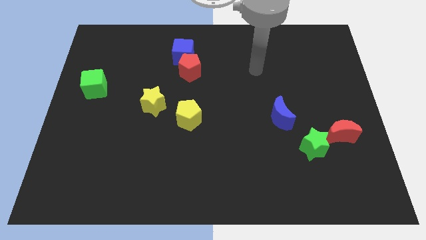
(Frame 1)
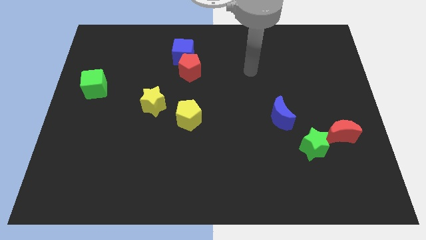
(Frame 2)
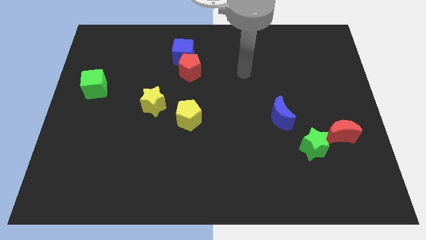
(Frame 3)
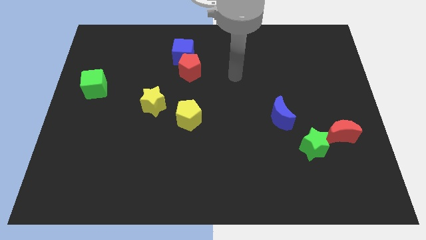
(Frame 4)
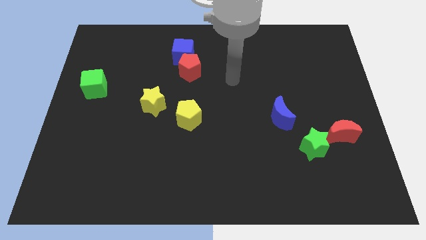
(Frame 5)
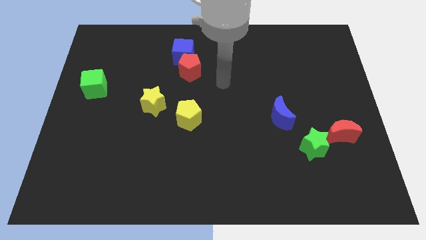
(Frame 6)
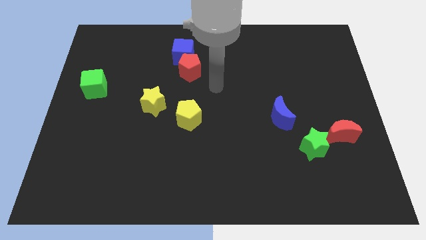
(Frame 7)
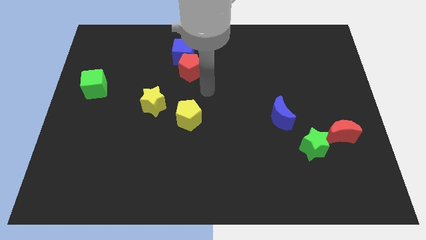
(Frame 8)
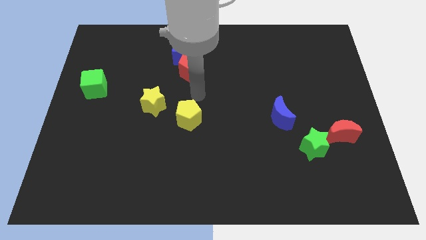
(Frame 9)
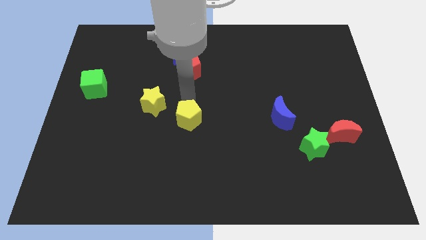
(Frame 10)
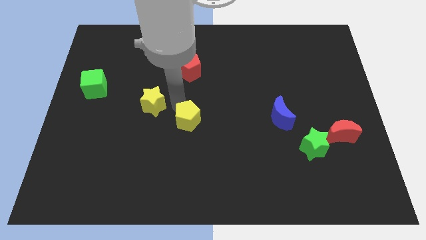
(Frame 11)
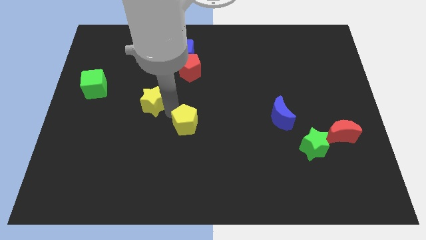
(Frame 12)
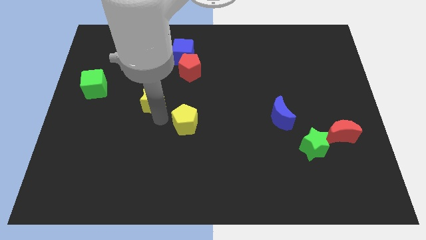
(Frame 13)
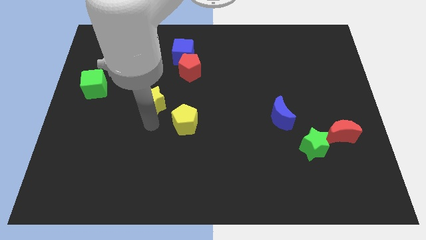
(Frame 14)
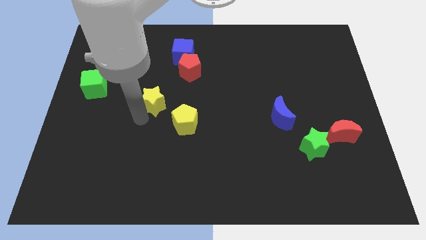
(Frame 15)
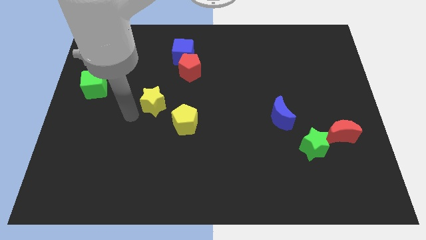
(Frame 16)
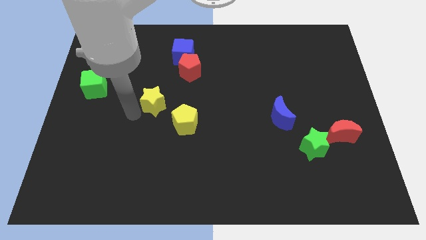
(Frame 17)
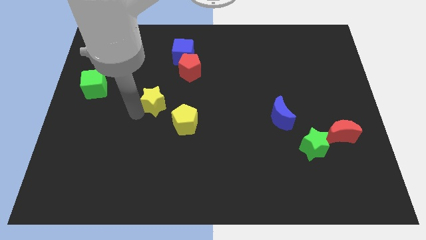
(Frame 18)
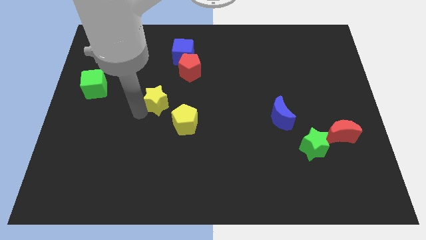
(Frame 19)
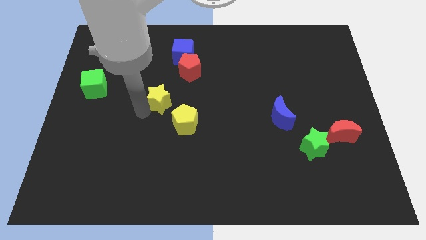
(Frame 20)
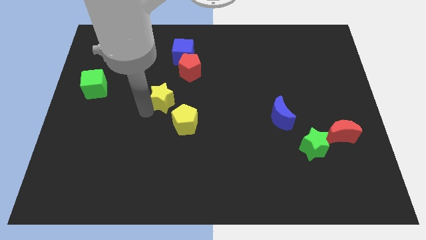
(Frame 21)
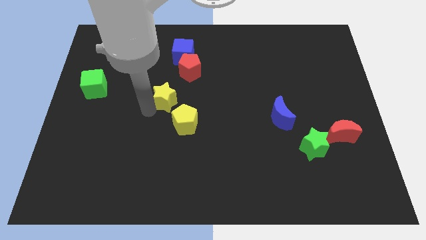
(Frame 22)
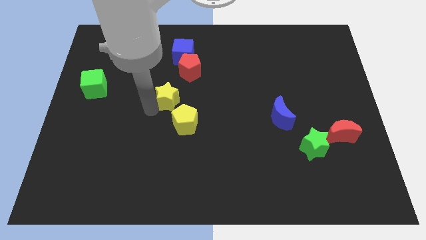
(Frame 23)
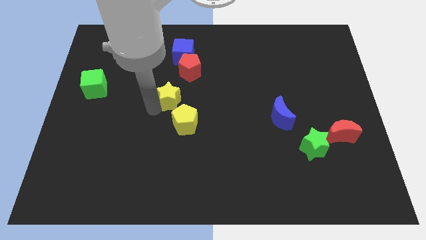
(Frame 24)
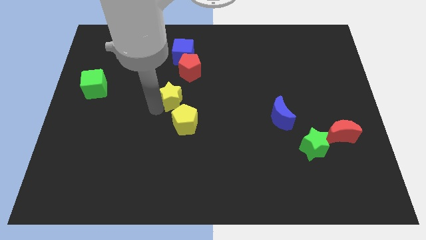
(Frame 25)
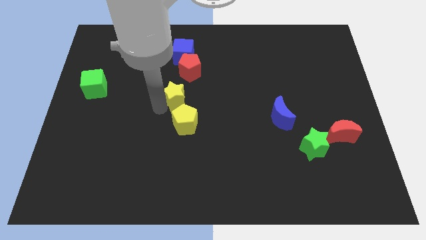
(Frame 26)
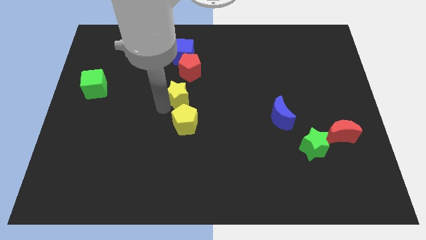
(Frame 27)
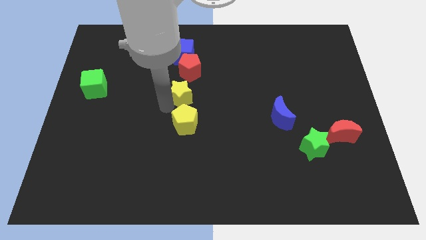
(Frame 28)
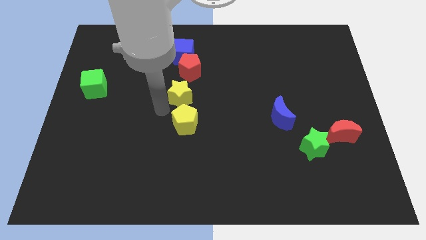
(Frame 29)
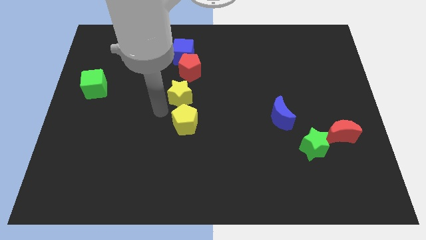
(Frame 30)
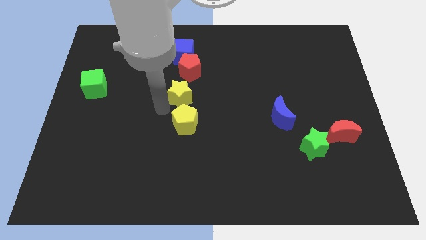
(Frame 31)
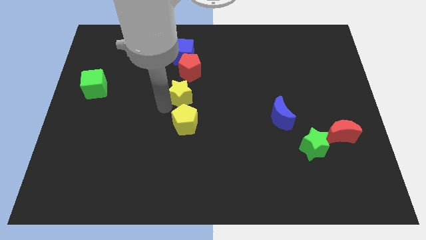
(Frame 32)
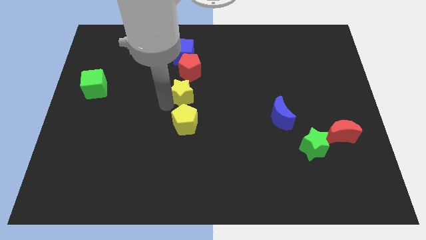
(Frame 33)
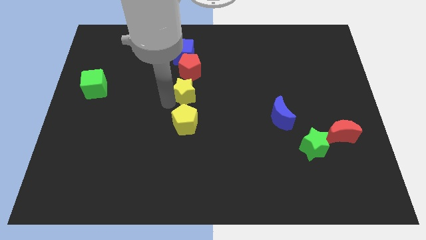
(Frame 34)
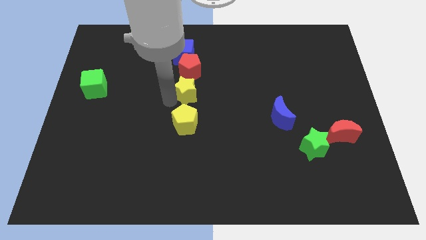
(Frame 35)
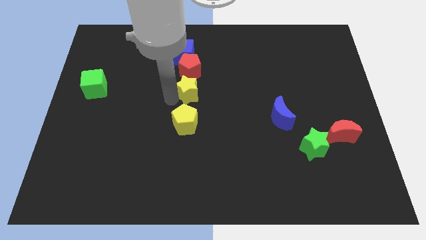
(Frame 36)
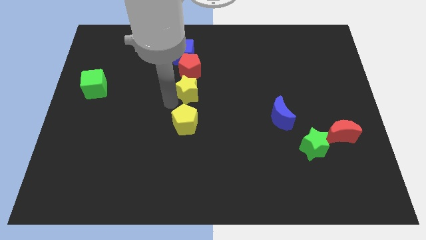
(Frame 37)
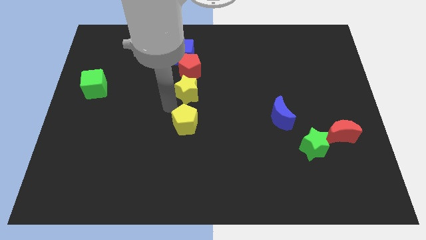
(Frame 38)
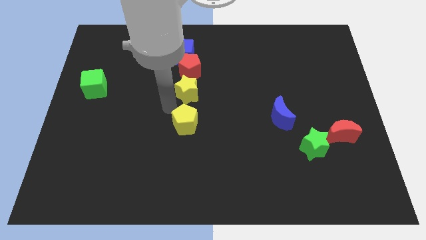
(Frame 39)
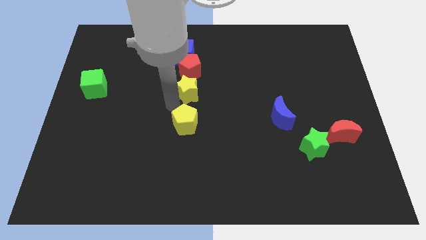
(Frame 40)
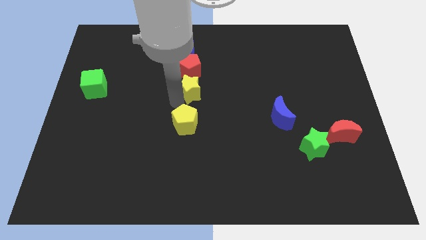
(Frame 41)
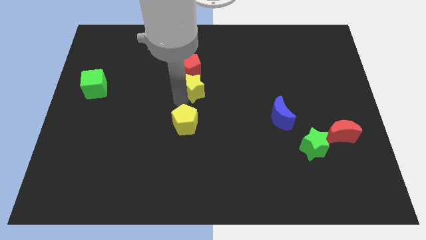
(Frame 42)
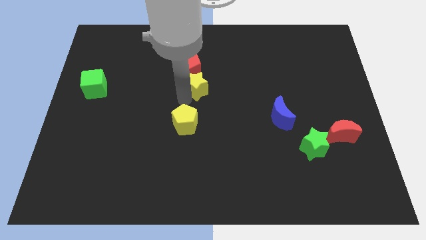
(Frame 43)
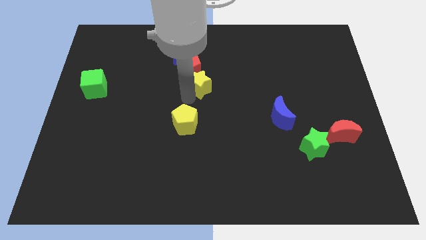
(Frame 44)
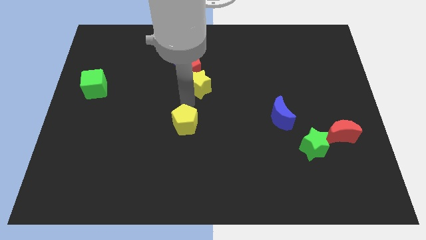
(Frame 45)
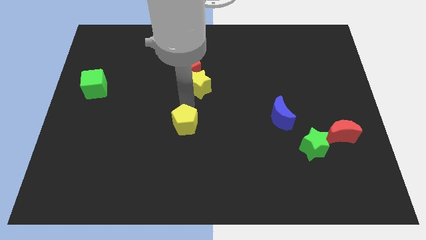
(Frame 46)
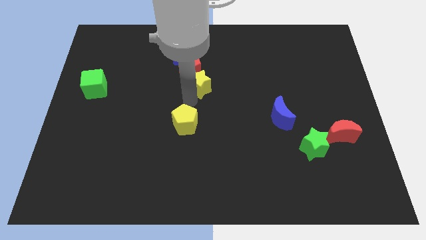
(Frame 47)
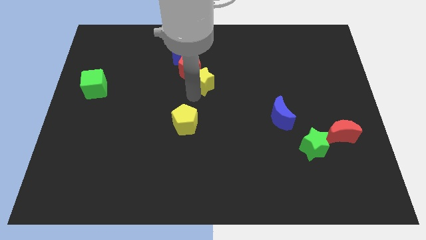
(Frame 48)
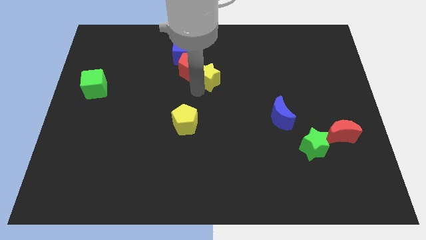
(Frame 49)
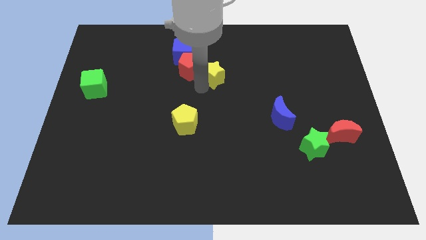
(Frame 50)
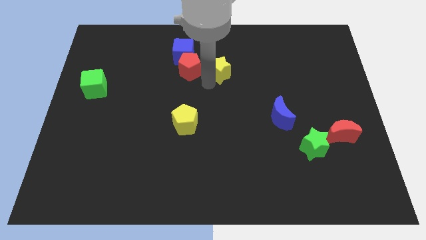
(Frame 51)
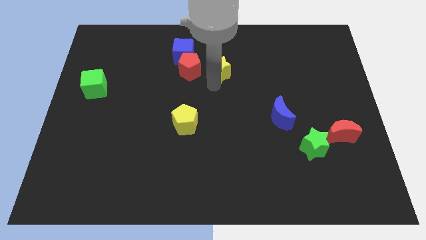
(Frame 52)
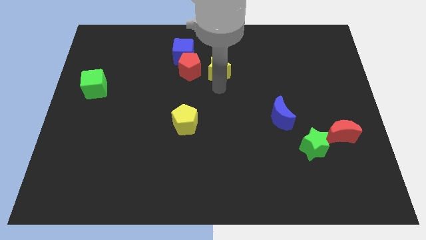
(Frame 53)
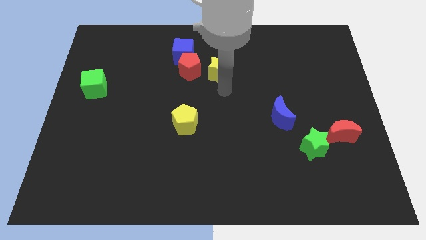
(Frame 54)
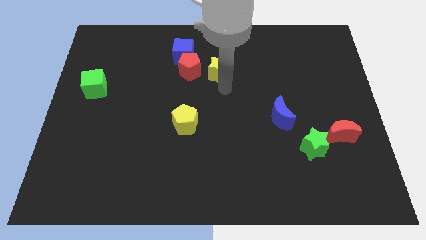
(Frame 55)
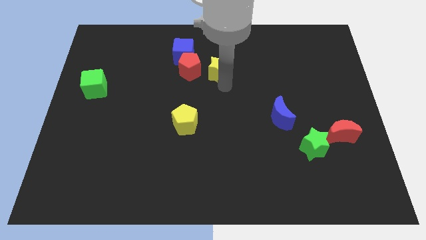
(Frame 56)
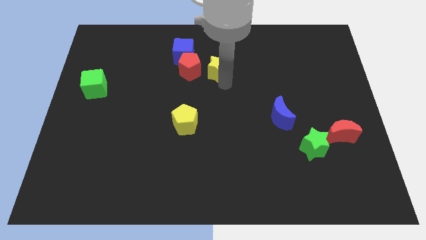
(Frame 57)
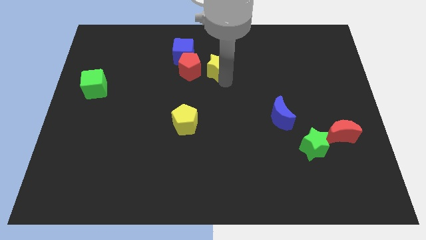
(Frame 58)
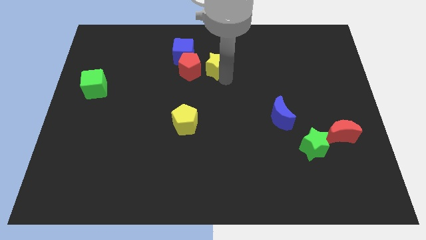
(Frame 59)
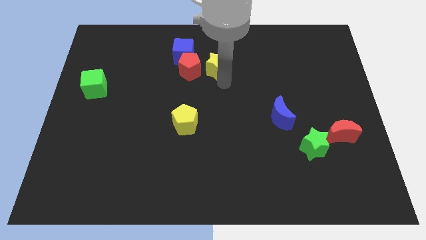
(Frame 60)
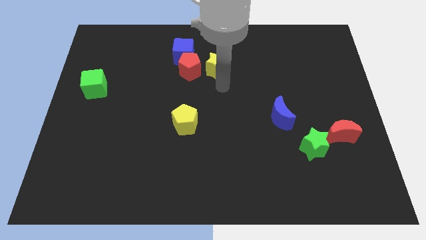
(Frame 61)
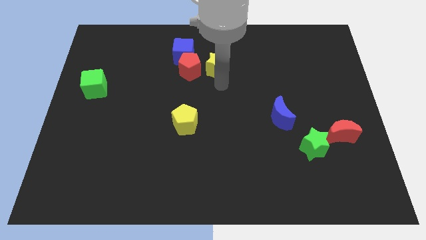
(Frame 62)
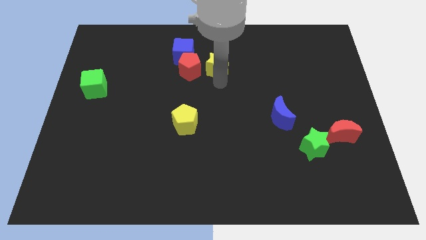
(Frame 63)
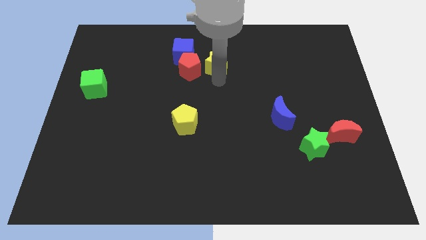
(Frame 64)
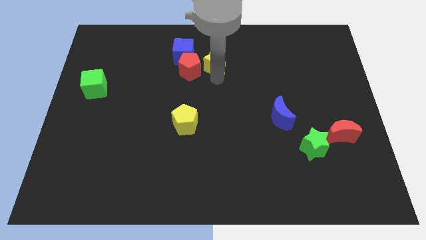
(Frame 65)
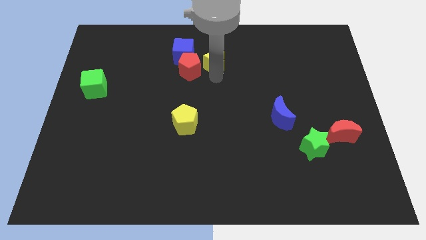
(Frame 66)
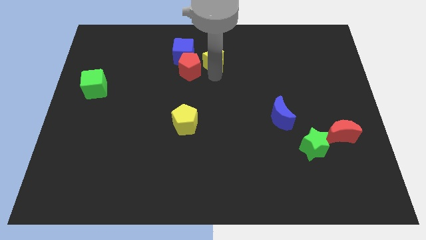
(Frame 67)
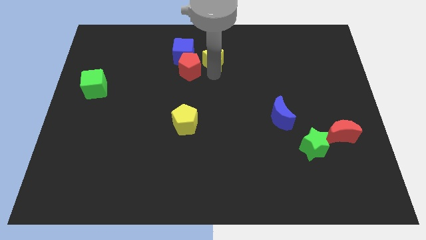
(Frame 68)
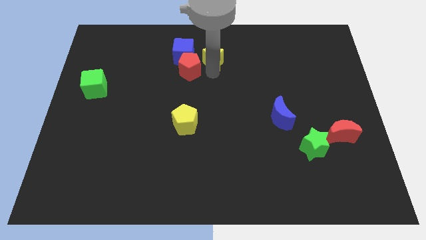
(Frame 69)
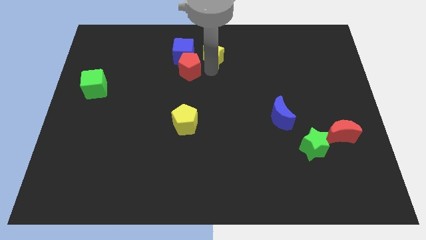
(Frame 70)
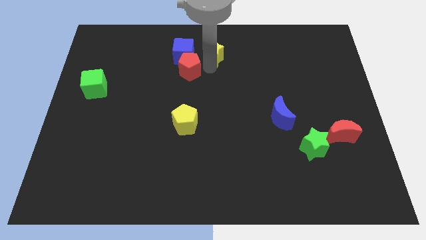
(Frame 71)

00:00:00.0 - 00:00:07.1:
put the yellow star to the towards your base

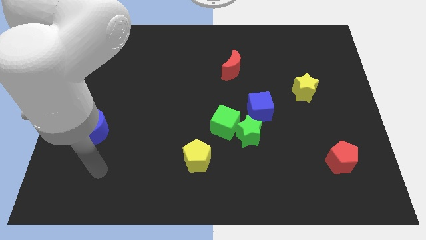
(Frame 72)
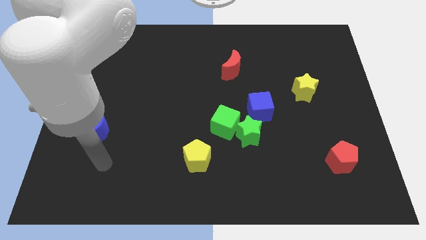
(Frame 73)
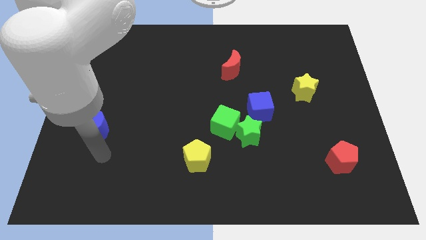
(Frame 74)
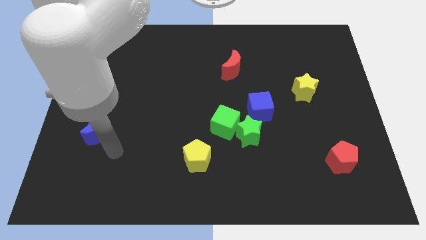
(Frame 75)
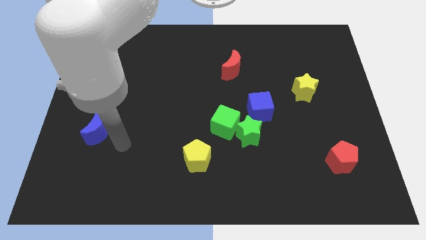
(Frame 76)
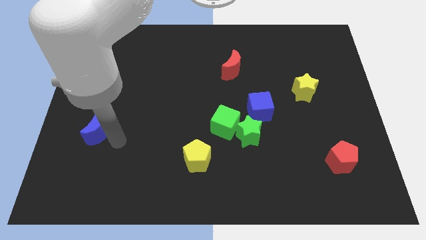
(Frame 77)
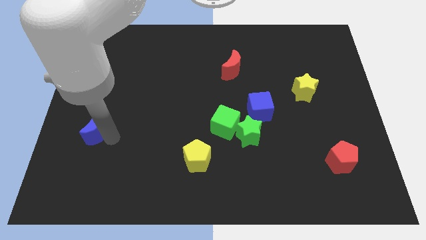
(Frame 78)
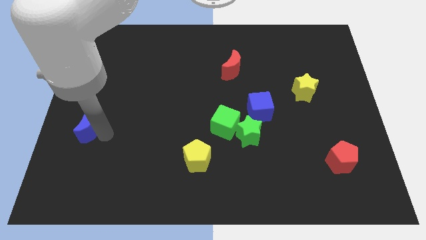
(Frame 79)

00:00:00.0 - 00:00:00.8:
move the blue moon to the center left
